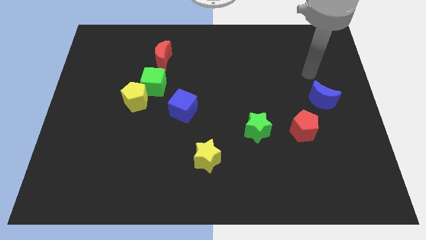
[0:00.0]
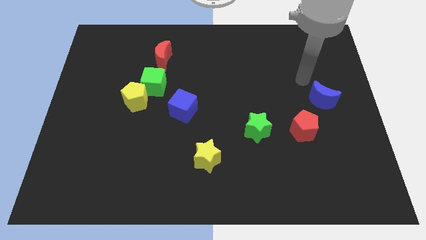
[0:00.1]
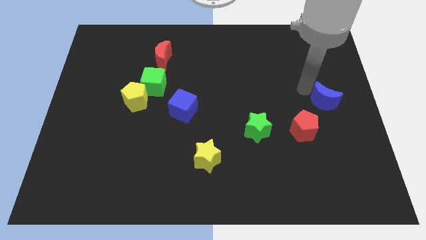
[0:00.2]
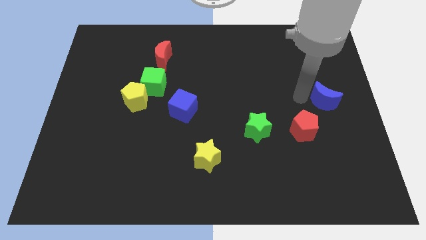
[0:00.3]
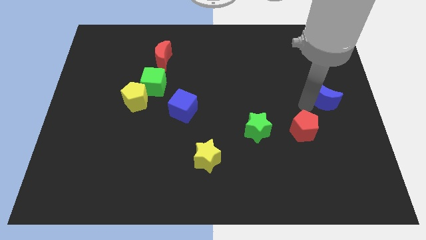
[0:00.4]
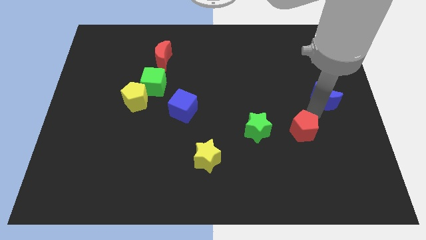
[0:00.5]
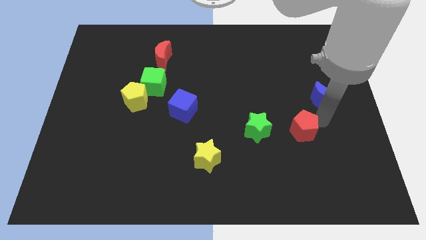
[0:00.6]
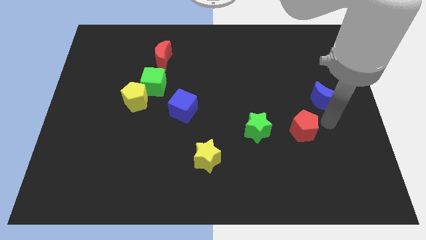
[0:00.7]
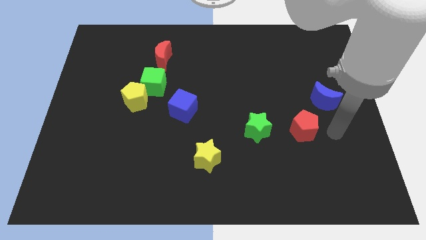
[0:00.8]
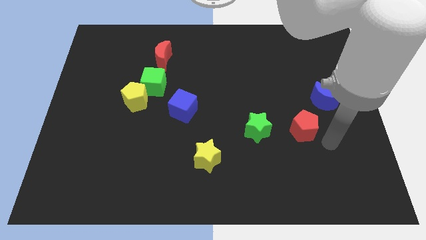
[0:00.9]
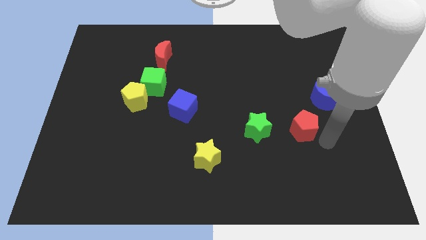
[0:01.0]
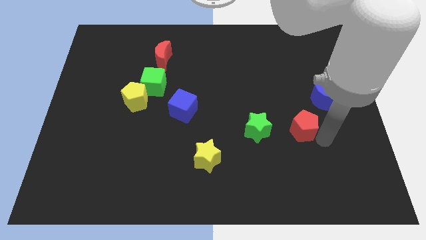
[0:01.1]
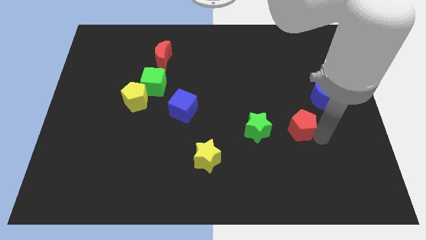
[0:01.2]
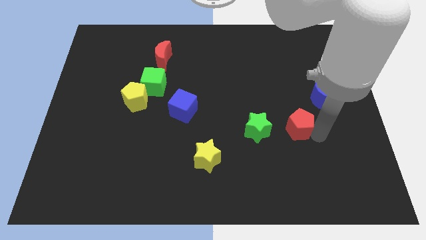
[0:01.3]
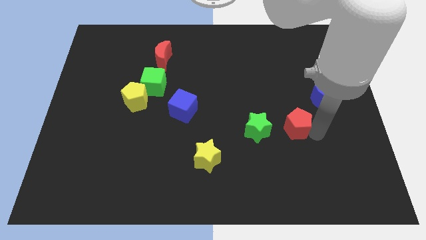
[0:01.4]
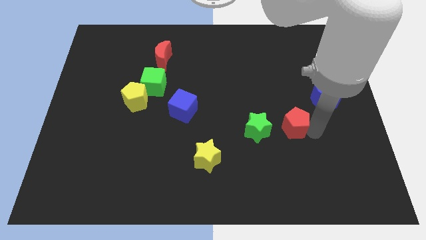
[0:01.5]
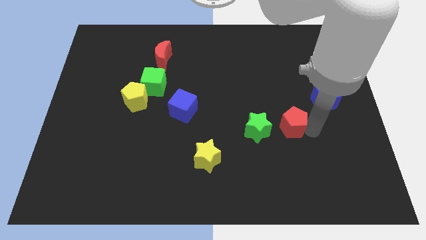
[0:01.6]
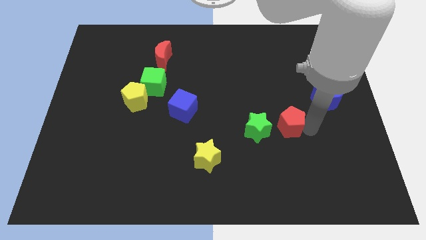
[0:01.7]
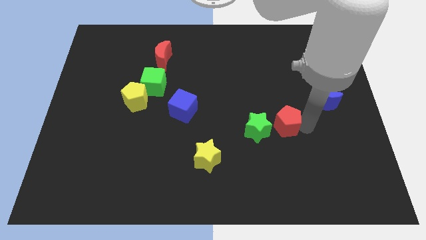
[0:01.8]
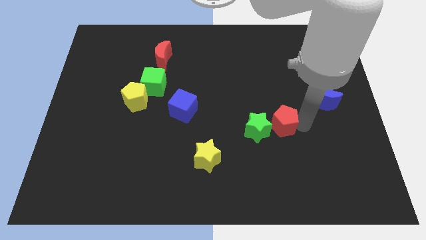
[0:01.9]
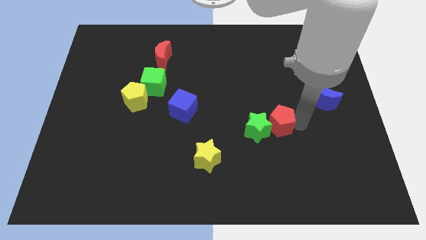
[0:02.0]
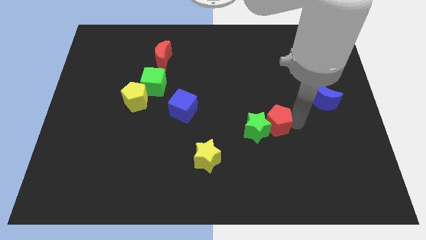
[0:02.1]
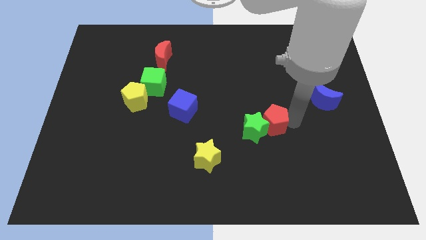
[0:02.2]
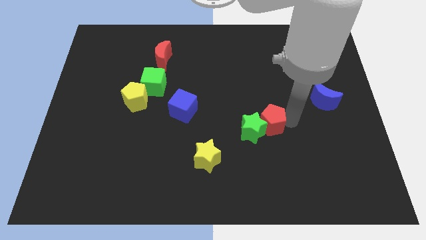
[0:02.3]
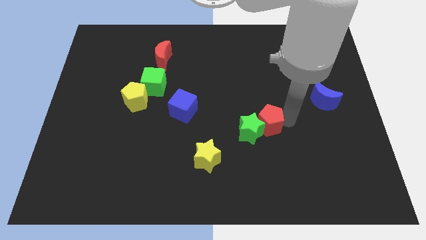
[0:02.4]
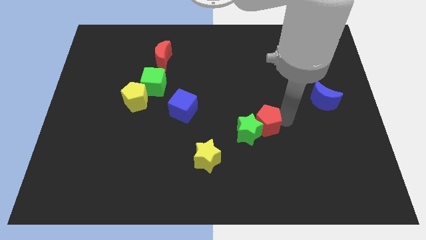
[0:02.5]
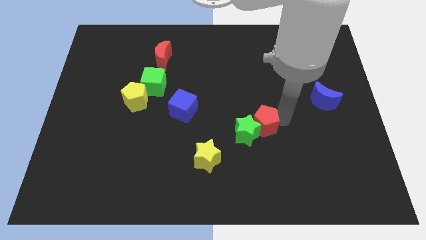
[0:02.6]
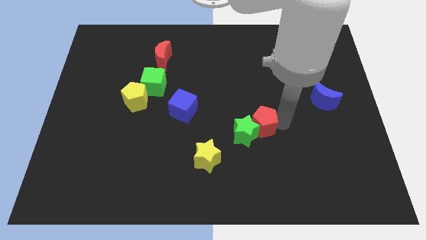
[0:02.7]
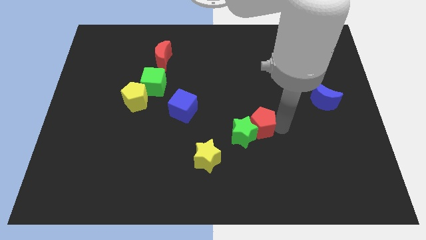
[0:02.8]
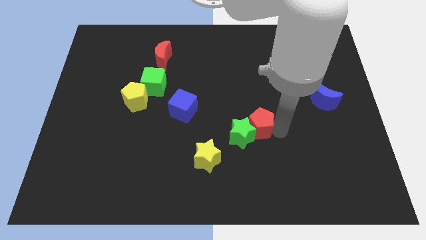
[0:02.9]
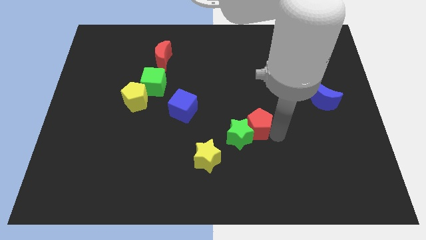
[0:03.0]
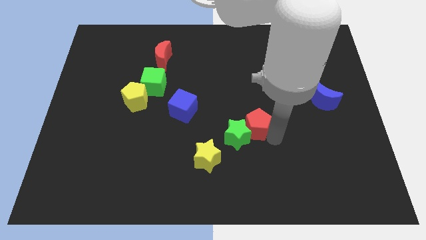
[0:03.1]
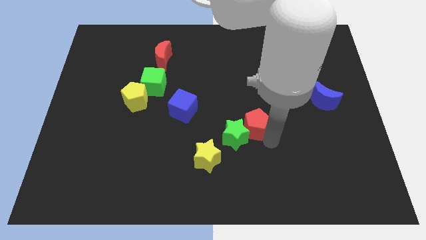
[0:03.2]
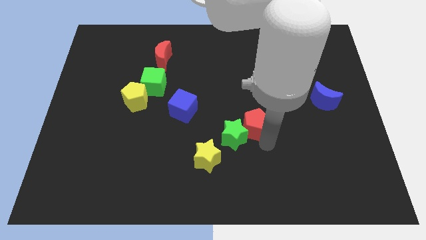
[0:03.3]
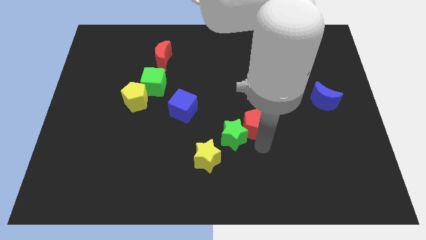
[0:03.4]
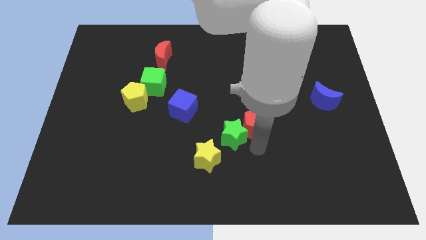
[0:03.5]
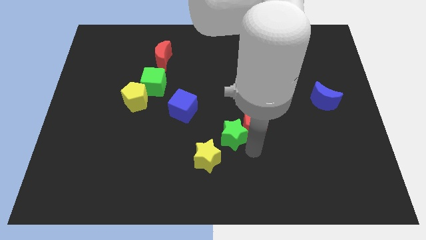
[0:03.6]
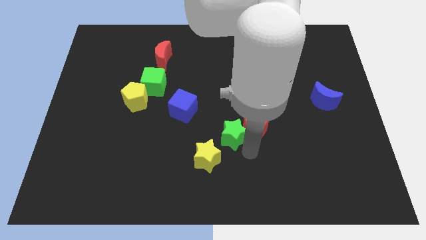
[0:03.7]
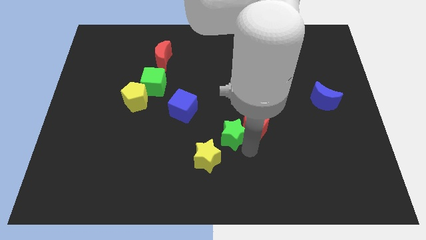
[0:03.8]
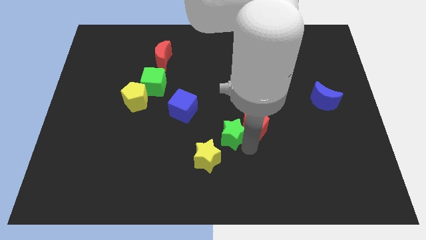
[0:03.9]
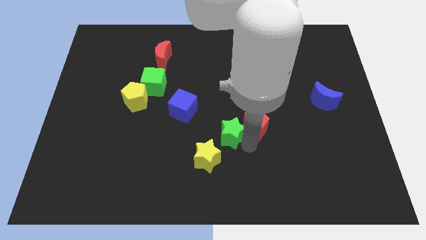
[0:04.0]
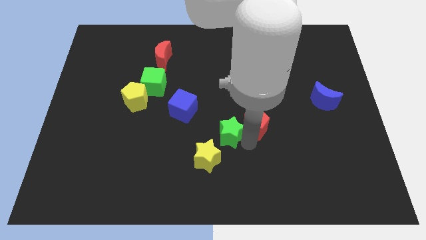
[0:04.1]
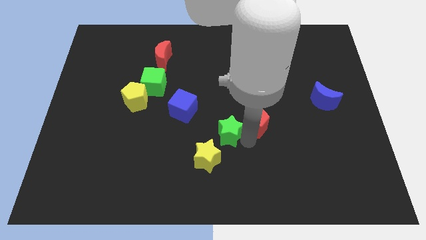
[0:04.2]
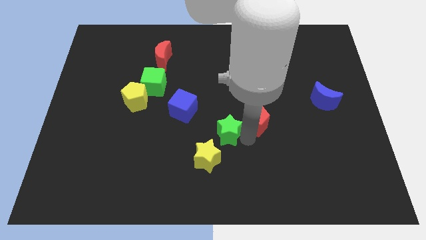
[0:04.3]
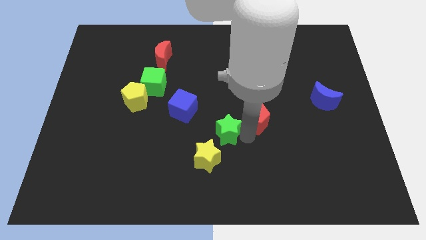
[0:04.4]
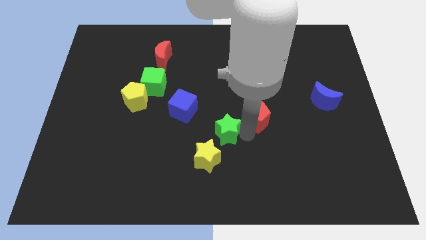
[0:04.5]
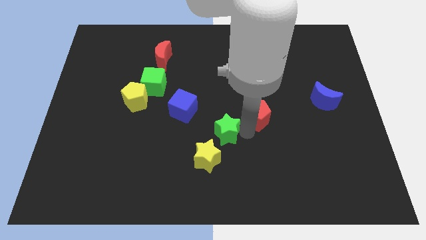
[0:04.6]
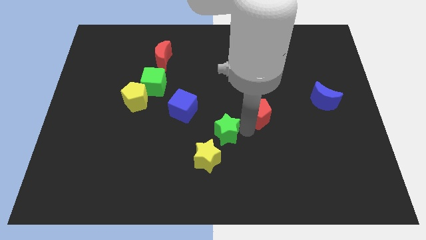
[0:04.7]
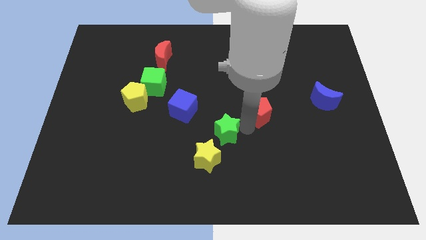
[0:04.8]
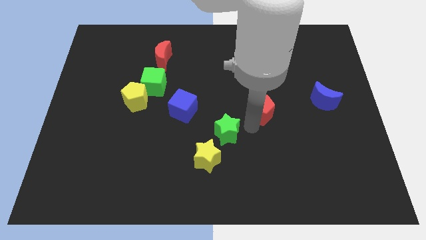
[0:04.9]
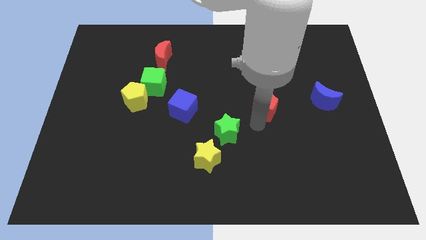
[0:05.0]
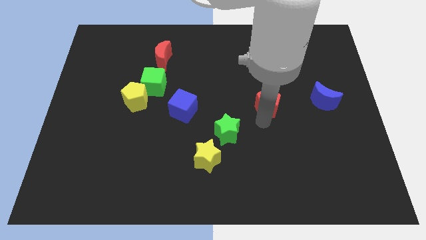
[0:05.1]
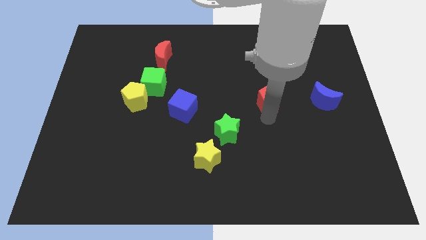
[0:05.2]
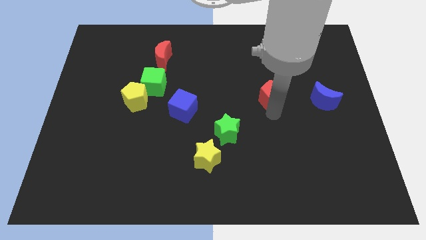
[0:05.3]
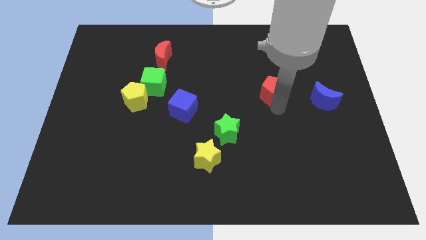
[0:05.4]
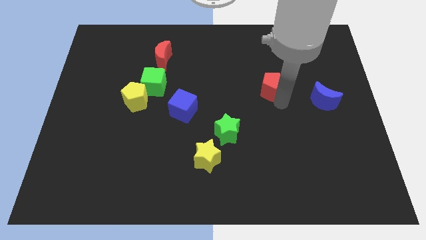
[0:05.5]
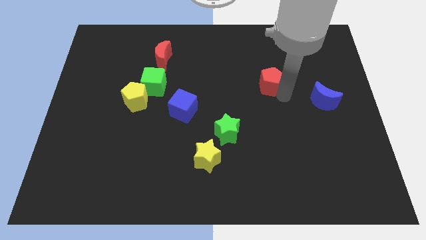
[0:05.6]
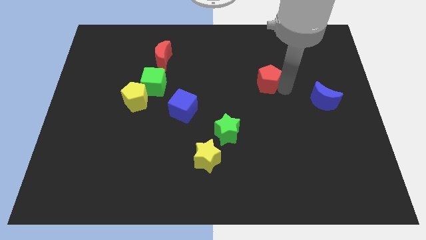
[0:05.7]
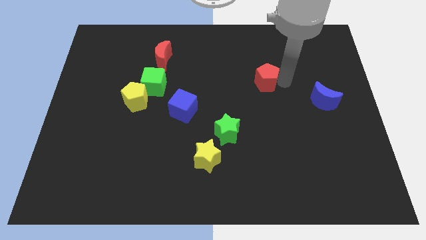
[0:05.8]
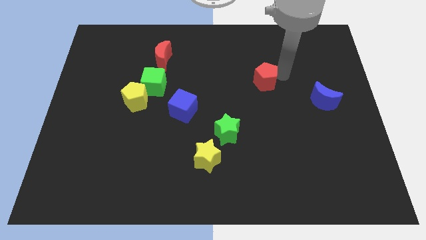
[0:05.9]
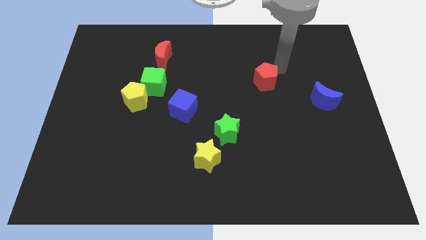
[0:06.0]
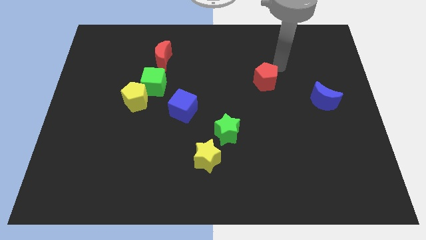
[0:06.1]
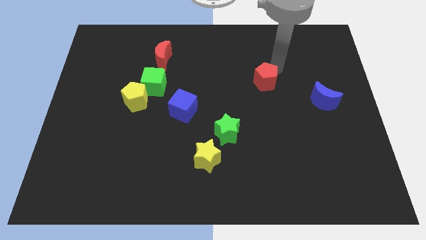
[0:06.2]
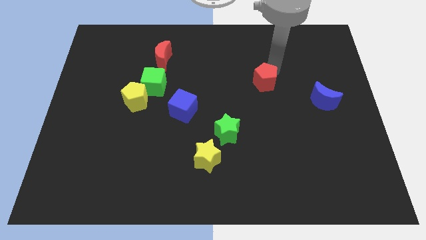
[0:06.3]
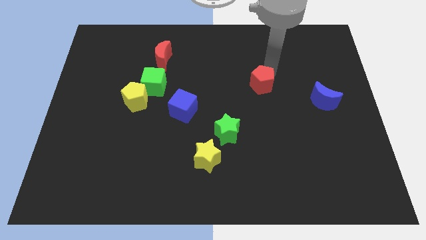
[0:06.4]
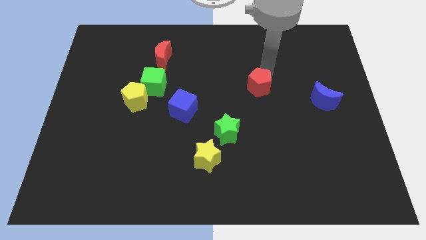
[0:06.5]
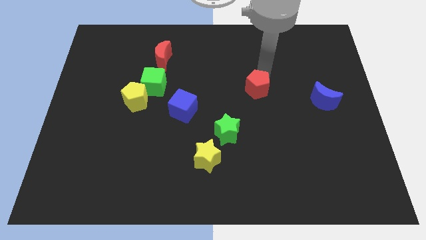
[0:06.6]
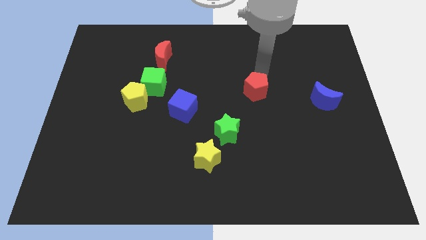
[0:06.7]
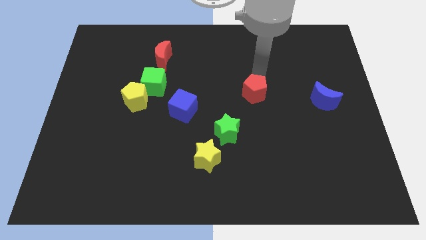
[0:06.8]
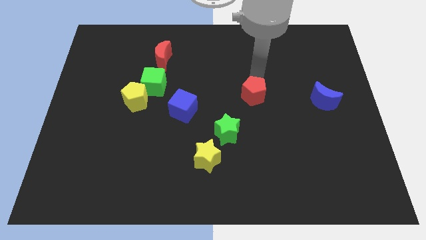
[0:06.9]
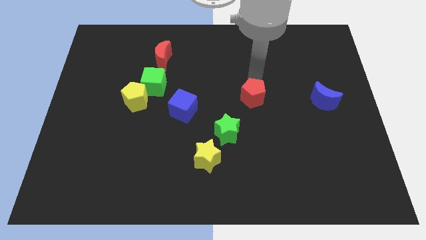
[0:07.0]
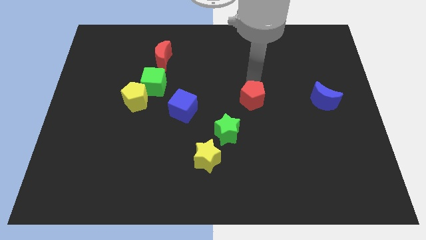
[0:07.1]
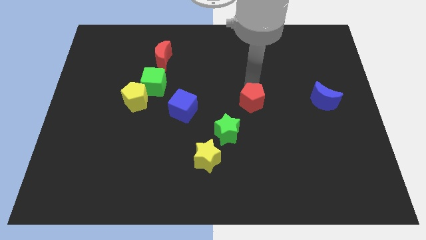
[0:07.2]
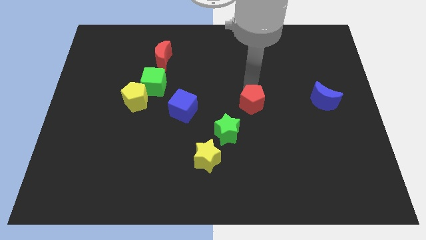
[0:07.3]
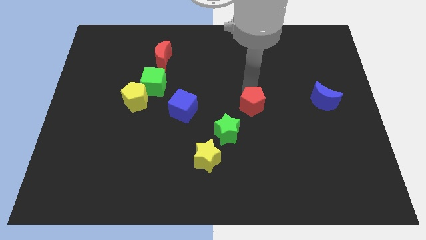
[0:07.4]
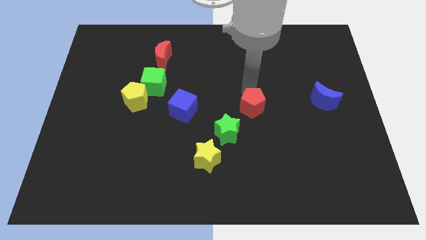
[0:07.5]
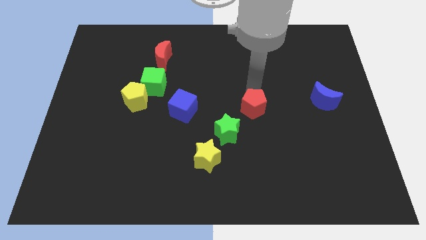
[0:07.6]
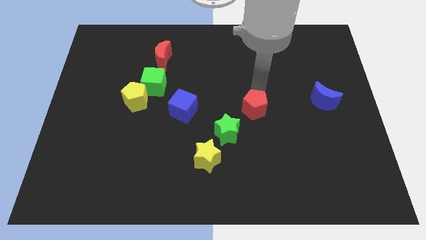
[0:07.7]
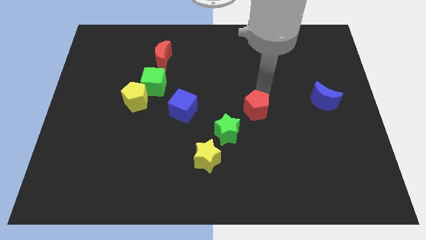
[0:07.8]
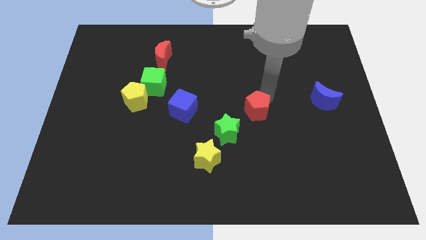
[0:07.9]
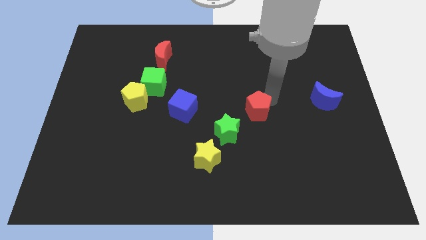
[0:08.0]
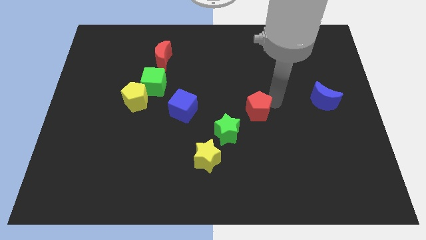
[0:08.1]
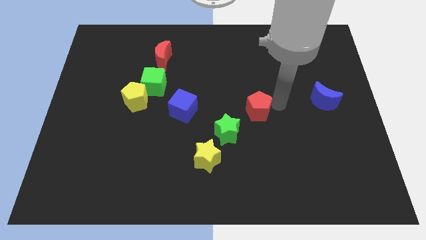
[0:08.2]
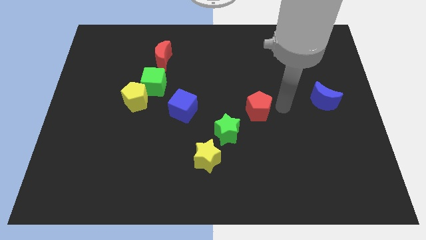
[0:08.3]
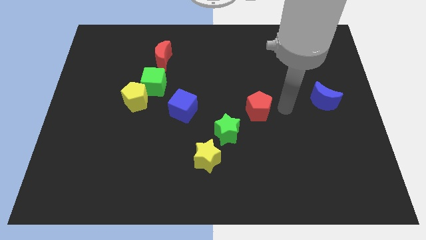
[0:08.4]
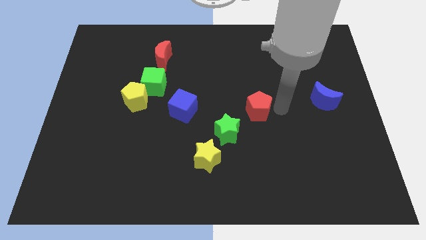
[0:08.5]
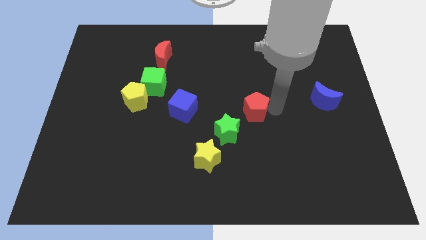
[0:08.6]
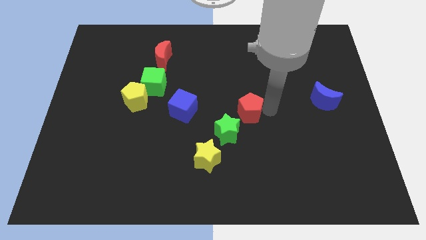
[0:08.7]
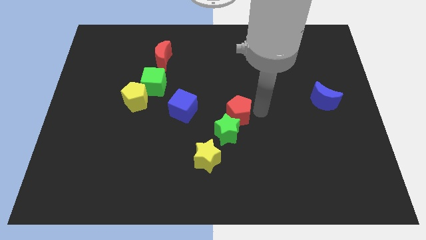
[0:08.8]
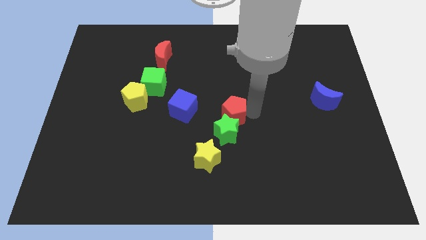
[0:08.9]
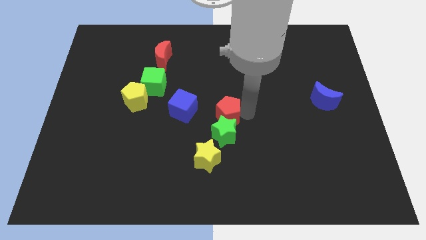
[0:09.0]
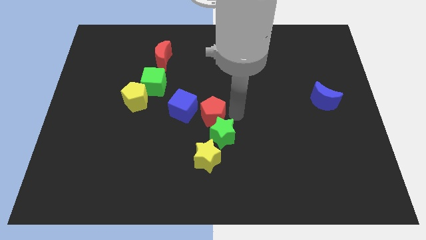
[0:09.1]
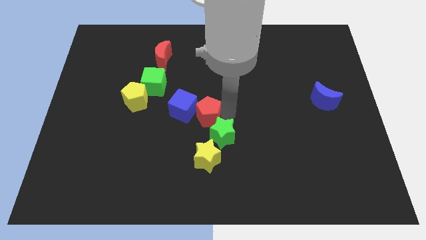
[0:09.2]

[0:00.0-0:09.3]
slide the red pentagon left
